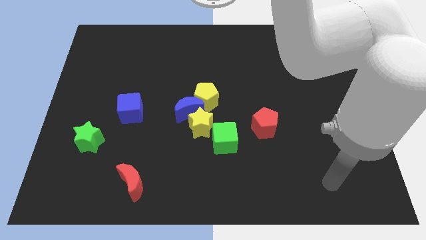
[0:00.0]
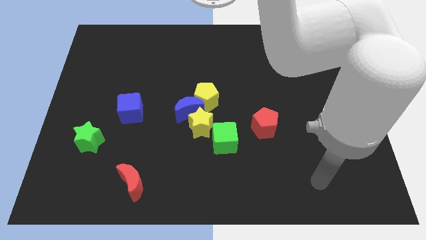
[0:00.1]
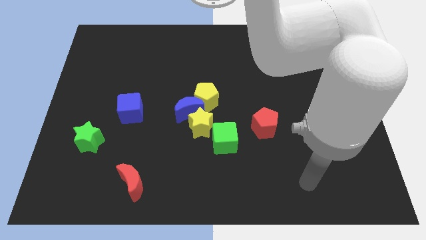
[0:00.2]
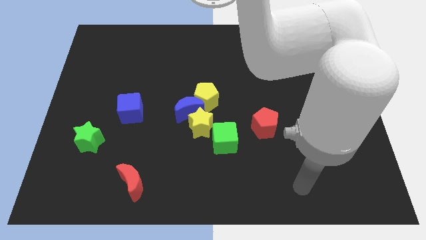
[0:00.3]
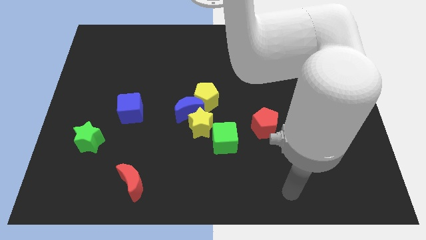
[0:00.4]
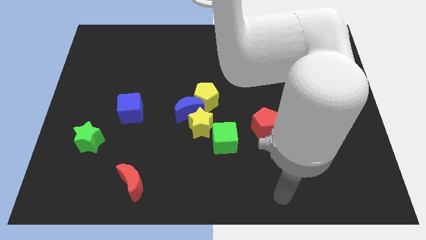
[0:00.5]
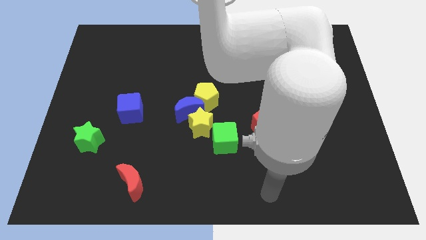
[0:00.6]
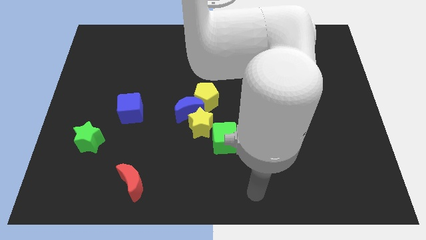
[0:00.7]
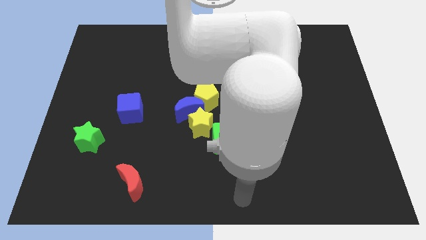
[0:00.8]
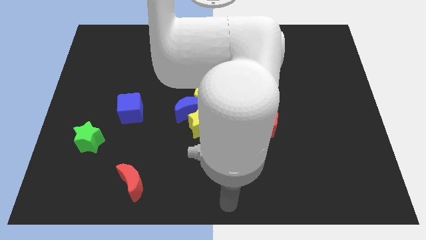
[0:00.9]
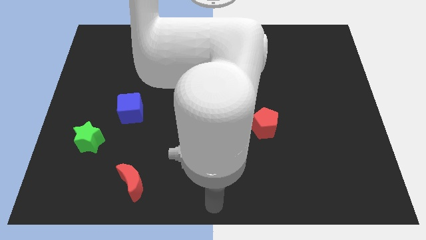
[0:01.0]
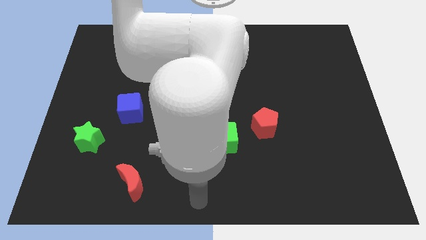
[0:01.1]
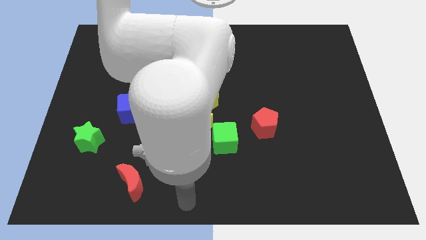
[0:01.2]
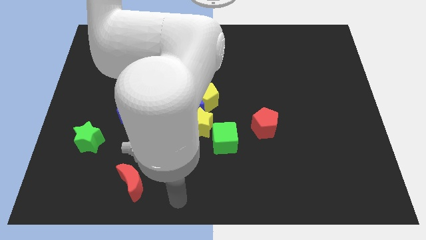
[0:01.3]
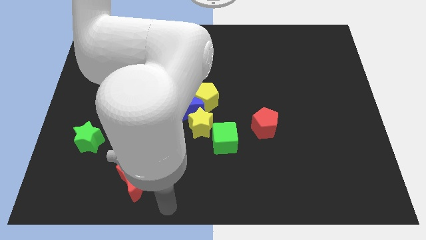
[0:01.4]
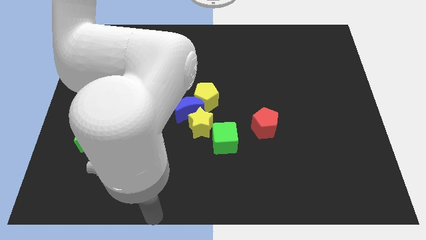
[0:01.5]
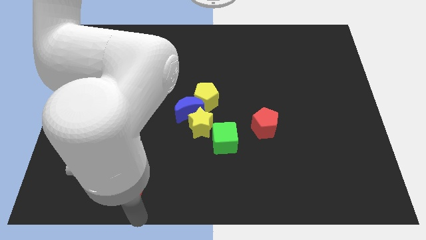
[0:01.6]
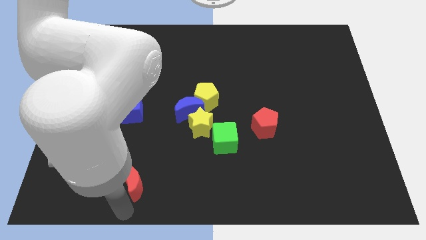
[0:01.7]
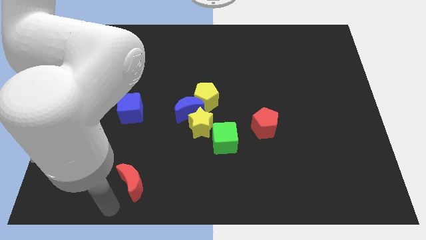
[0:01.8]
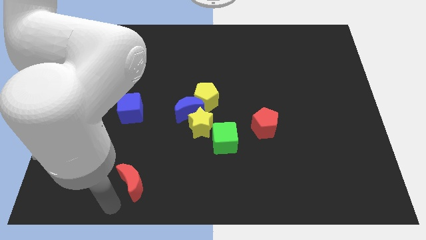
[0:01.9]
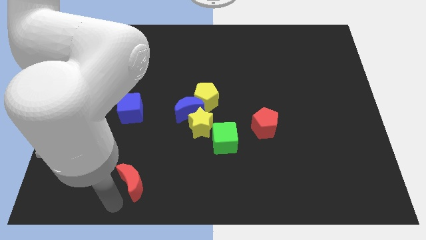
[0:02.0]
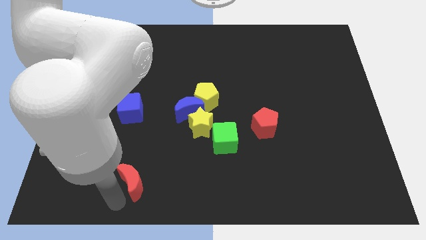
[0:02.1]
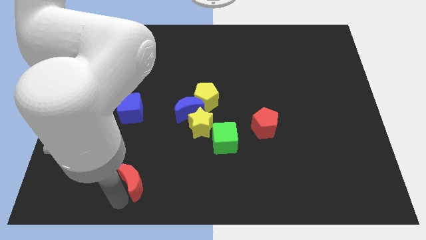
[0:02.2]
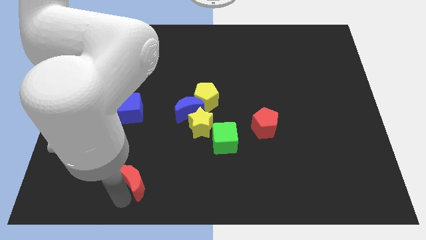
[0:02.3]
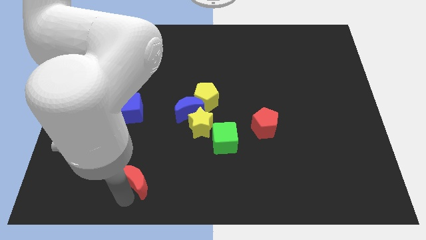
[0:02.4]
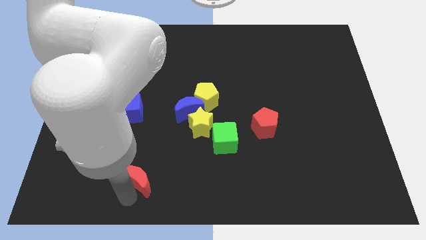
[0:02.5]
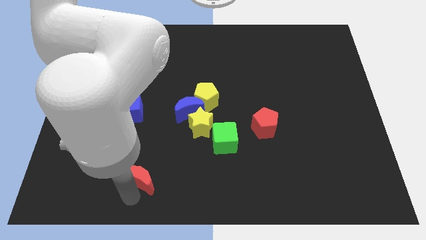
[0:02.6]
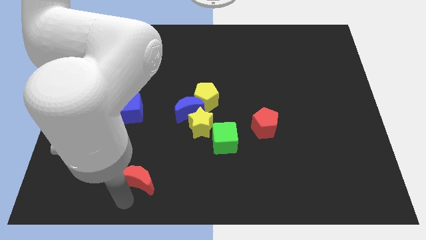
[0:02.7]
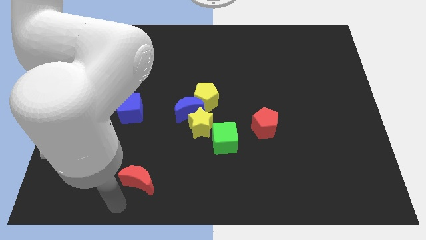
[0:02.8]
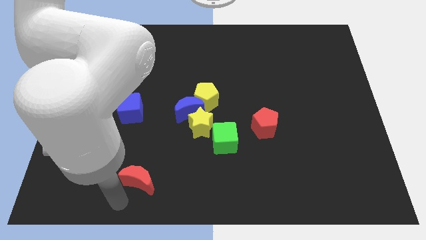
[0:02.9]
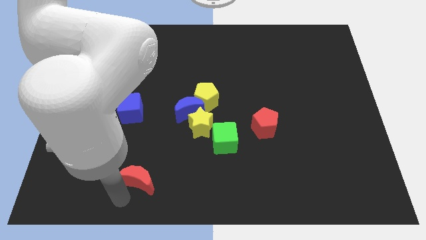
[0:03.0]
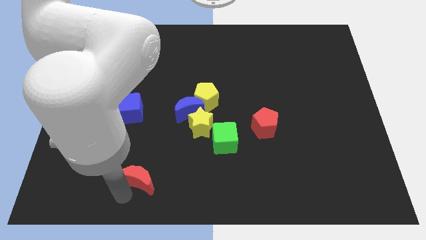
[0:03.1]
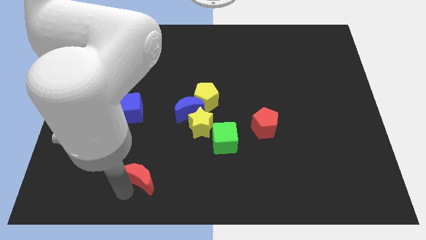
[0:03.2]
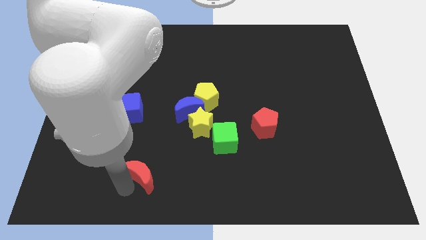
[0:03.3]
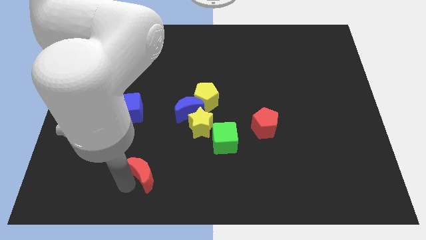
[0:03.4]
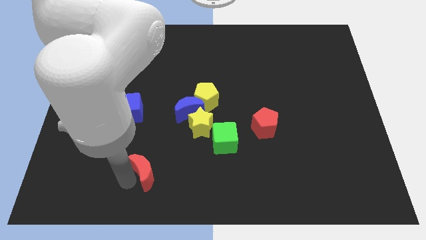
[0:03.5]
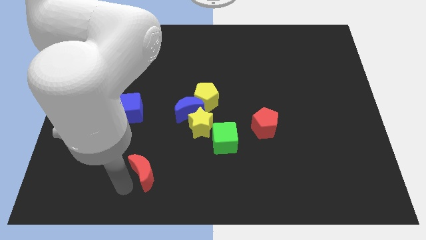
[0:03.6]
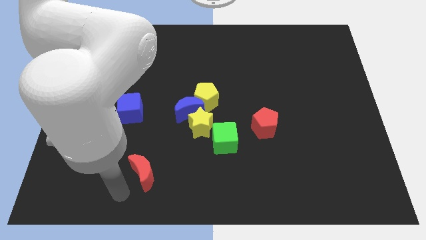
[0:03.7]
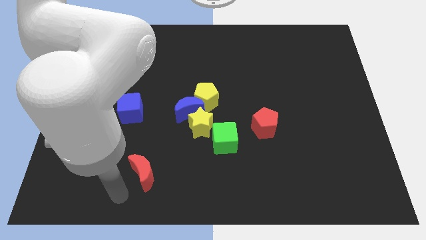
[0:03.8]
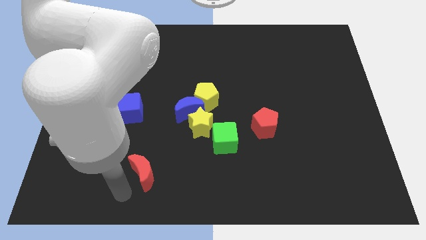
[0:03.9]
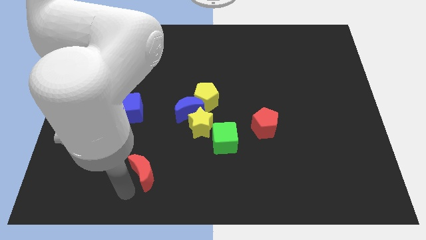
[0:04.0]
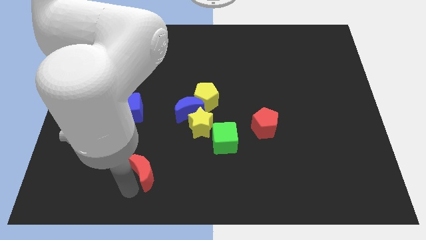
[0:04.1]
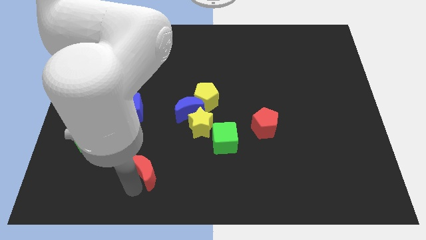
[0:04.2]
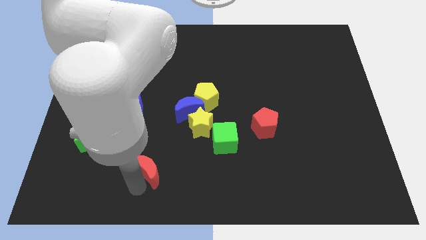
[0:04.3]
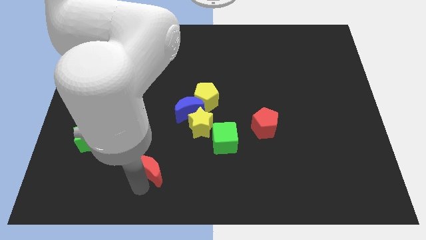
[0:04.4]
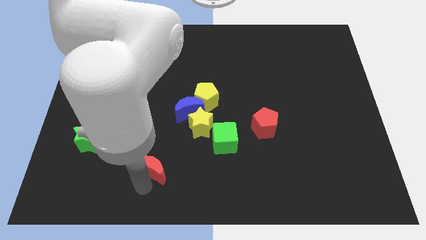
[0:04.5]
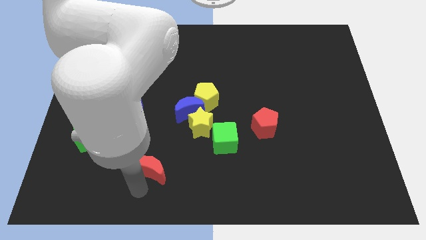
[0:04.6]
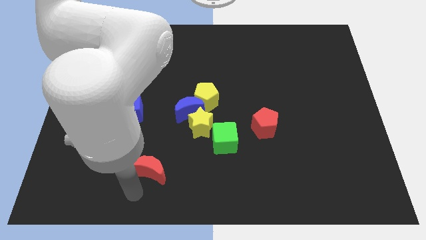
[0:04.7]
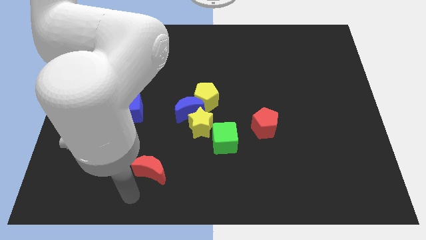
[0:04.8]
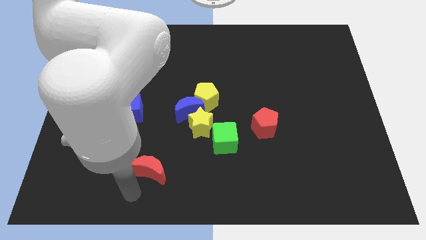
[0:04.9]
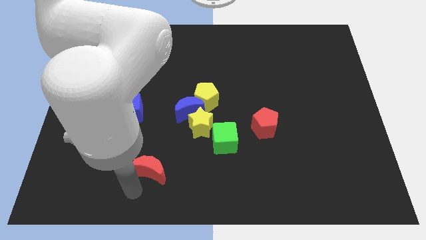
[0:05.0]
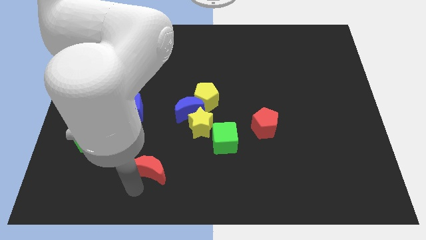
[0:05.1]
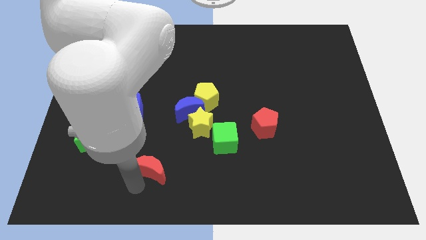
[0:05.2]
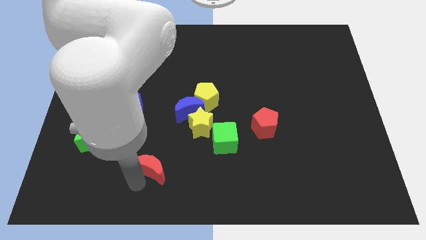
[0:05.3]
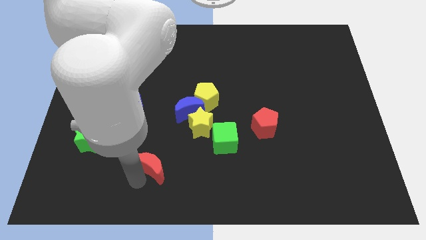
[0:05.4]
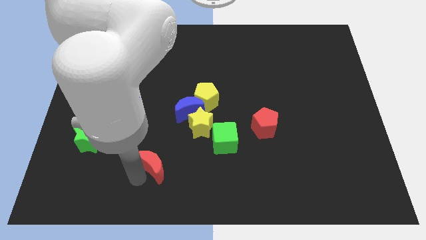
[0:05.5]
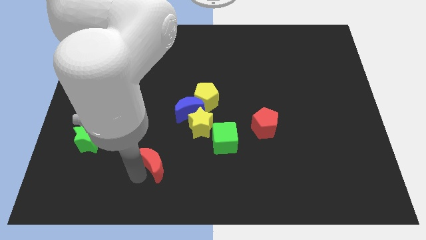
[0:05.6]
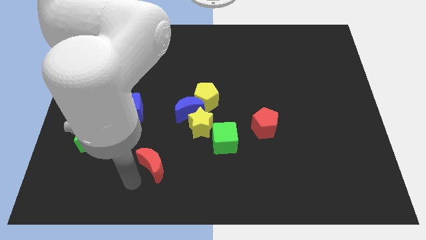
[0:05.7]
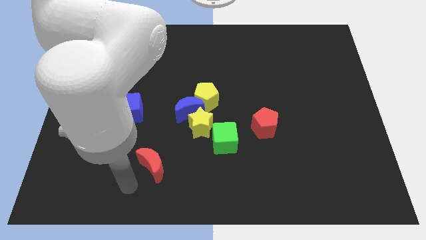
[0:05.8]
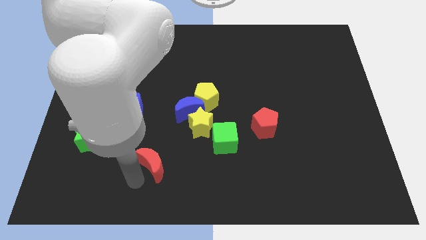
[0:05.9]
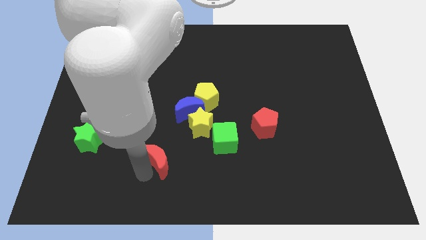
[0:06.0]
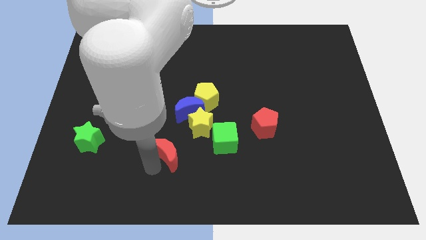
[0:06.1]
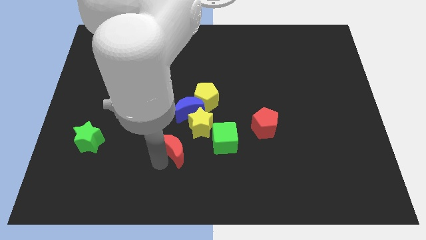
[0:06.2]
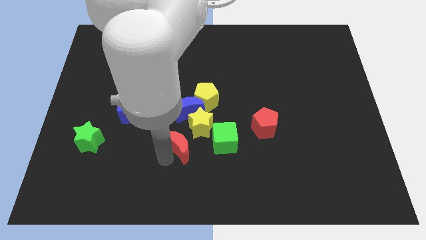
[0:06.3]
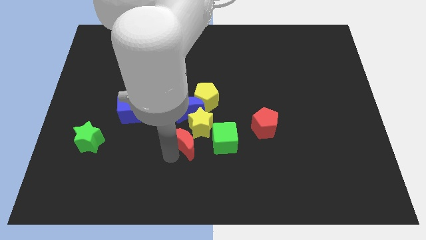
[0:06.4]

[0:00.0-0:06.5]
slide the red moon close to the yellow star
